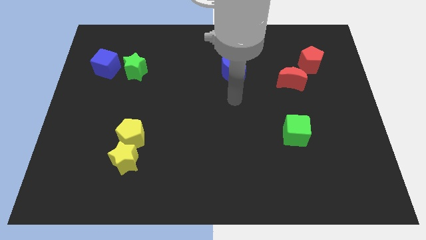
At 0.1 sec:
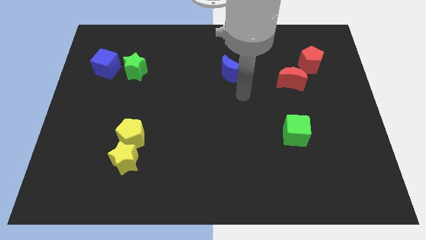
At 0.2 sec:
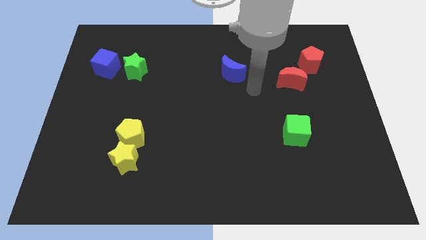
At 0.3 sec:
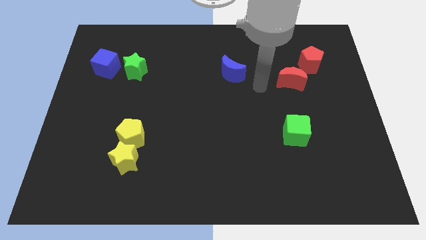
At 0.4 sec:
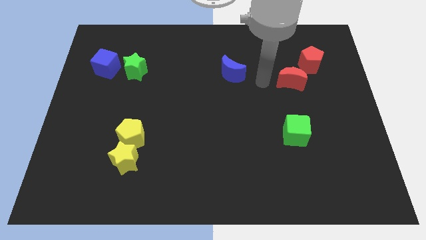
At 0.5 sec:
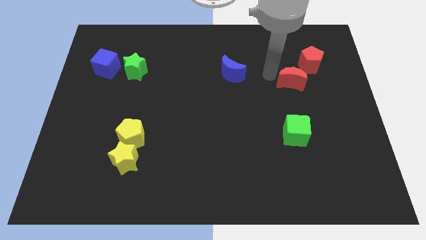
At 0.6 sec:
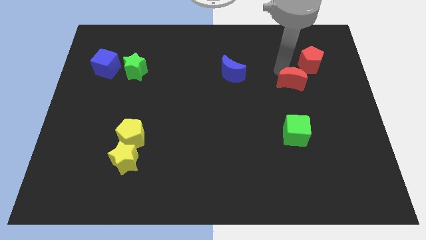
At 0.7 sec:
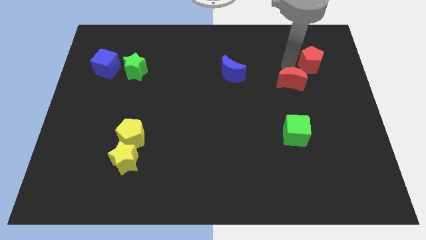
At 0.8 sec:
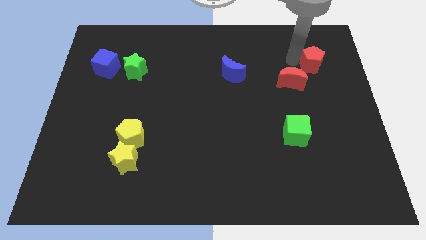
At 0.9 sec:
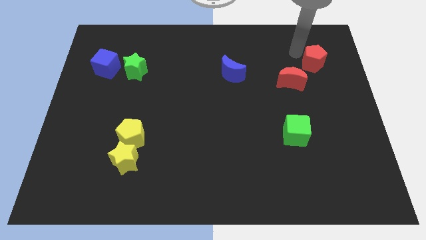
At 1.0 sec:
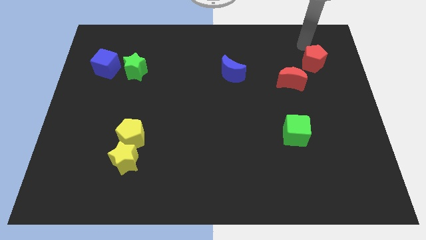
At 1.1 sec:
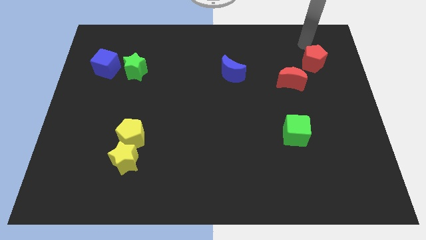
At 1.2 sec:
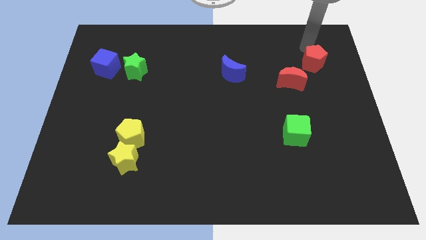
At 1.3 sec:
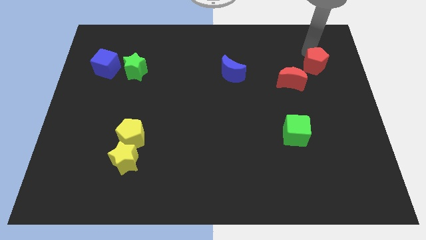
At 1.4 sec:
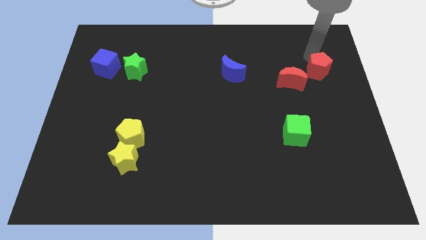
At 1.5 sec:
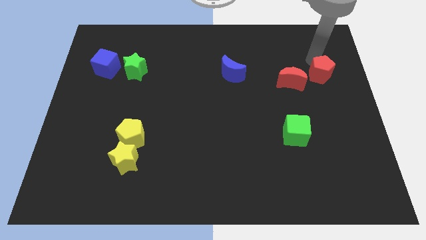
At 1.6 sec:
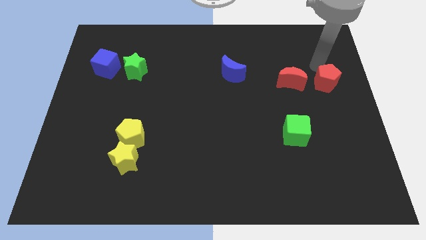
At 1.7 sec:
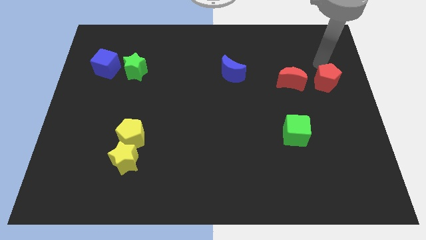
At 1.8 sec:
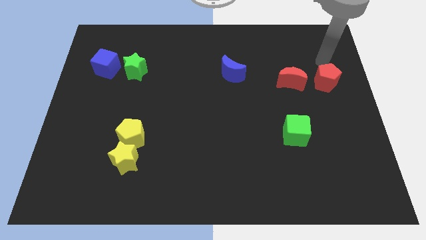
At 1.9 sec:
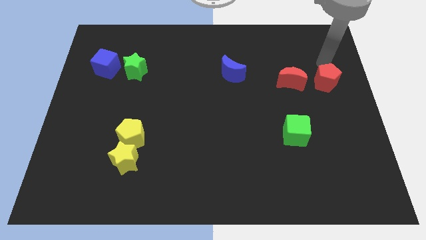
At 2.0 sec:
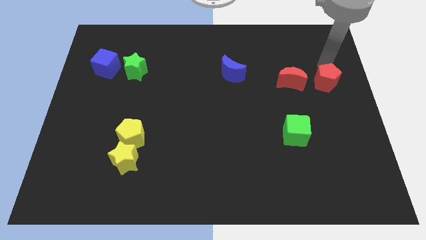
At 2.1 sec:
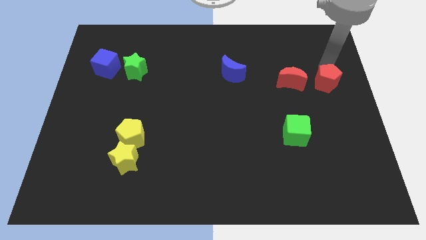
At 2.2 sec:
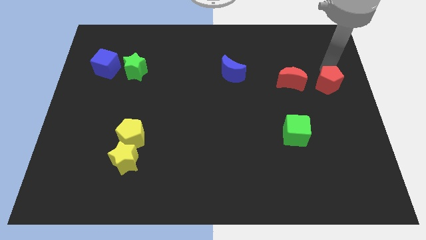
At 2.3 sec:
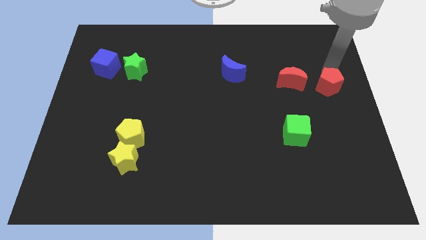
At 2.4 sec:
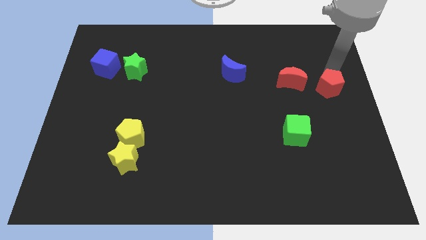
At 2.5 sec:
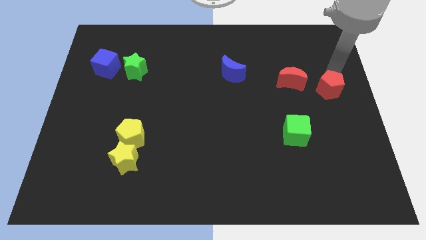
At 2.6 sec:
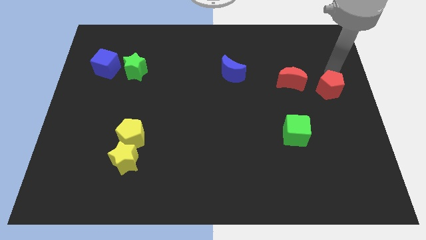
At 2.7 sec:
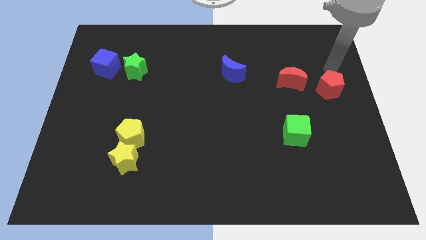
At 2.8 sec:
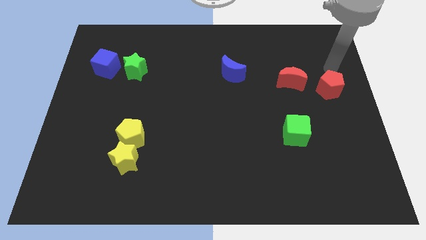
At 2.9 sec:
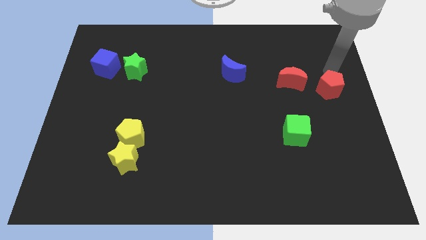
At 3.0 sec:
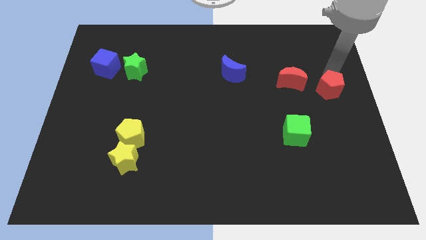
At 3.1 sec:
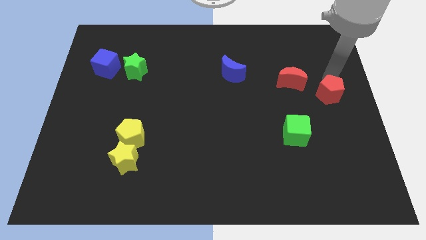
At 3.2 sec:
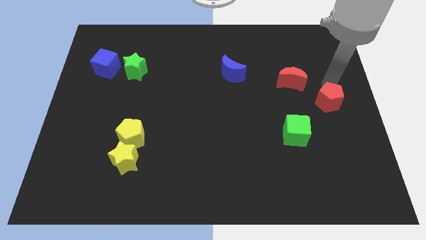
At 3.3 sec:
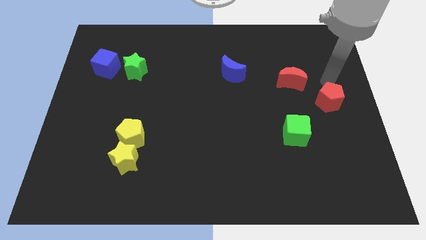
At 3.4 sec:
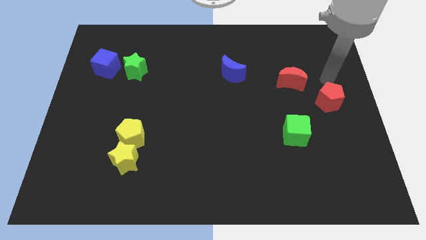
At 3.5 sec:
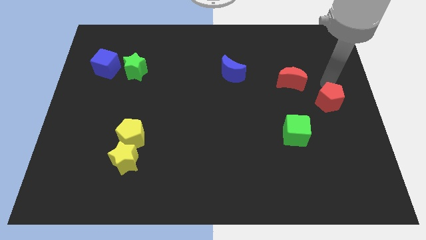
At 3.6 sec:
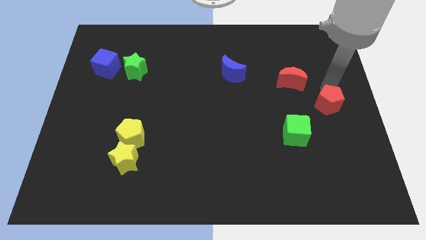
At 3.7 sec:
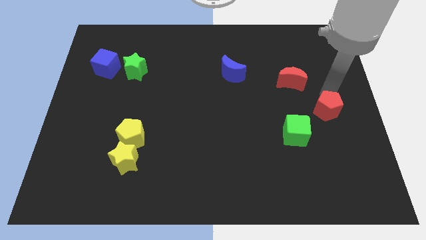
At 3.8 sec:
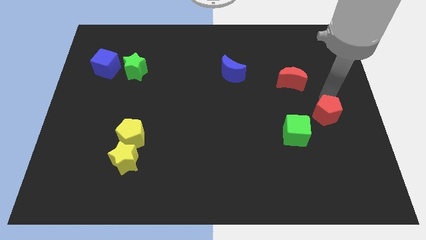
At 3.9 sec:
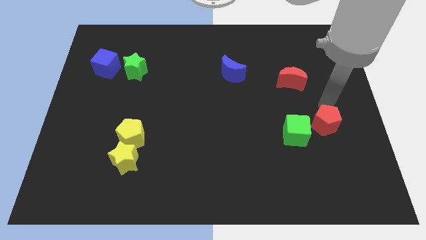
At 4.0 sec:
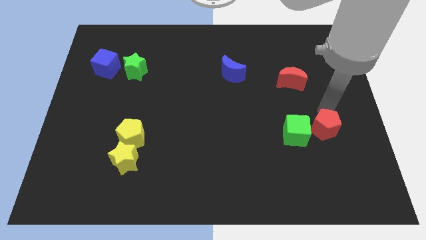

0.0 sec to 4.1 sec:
push the red pentagon downwards

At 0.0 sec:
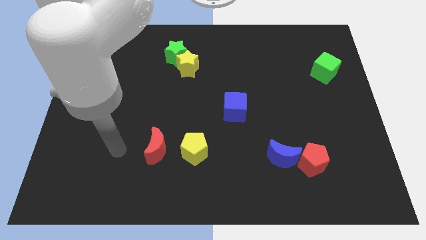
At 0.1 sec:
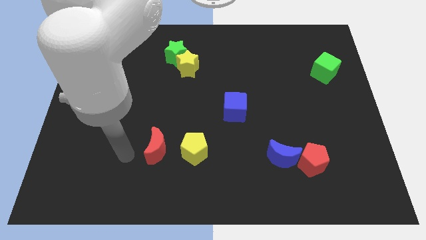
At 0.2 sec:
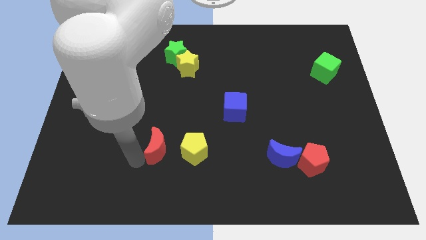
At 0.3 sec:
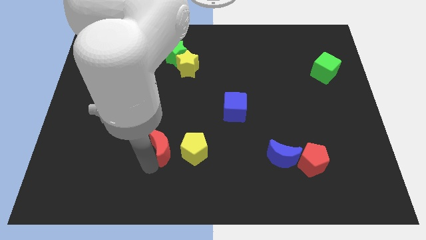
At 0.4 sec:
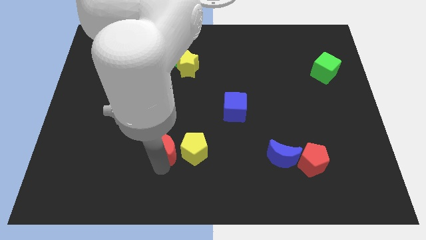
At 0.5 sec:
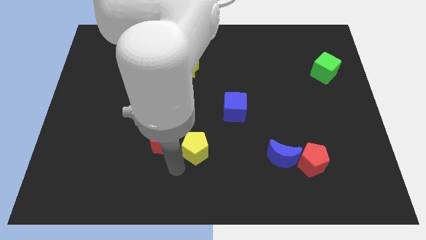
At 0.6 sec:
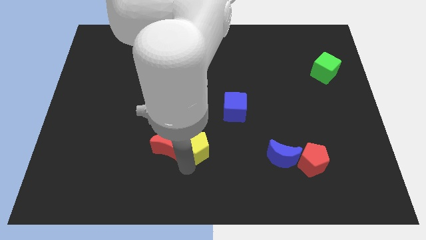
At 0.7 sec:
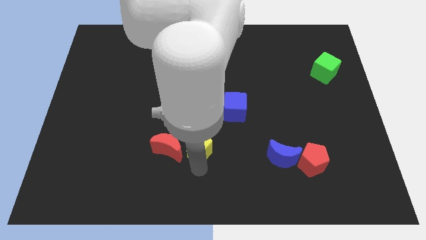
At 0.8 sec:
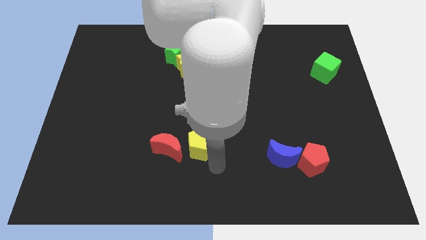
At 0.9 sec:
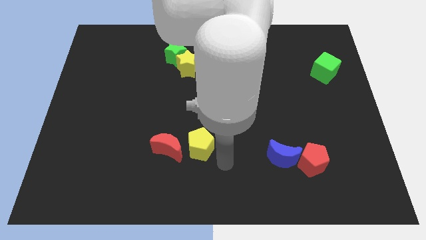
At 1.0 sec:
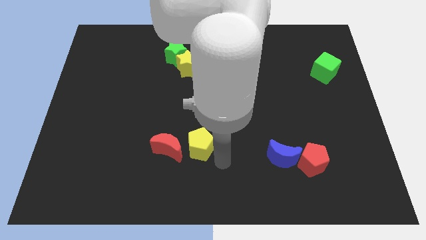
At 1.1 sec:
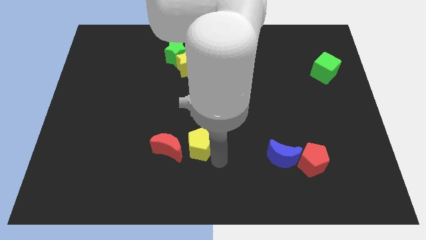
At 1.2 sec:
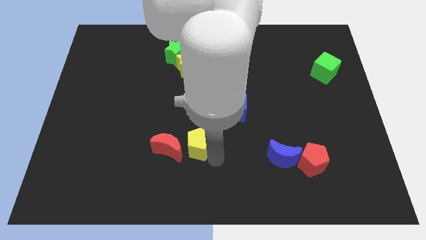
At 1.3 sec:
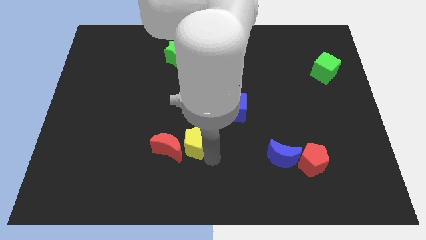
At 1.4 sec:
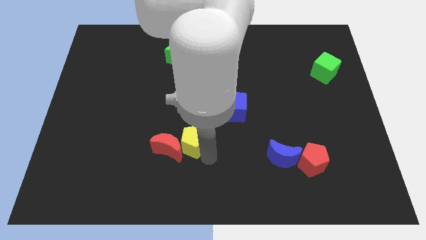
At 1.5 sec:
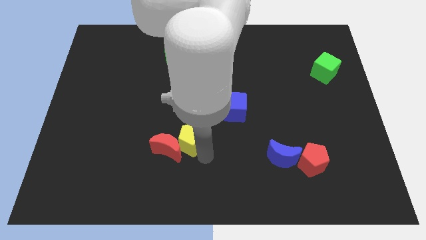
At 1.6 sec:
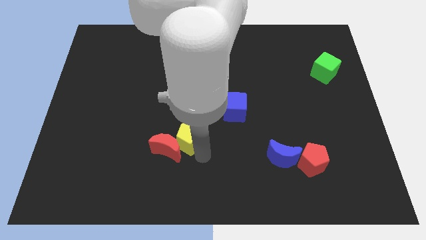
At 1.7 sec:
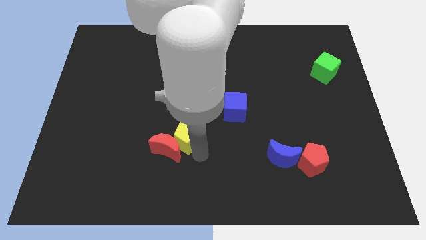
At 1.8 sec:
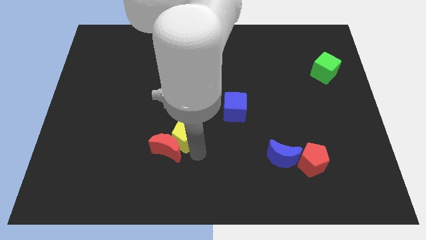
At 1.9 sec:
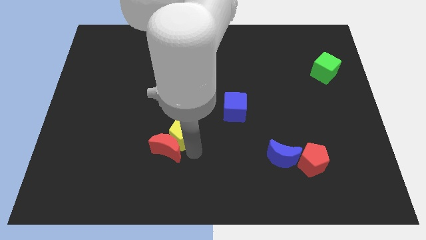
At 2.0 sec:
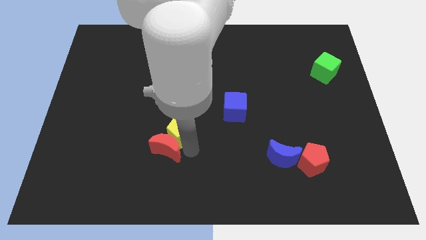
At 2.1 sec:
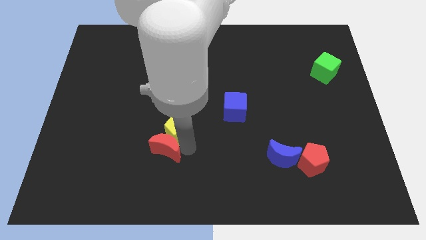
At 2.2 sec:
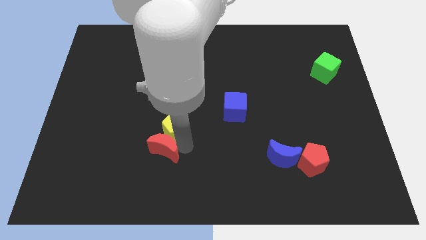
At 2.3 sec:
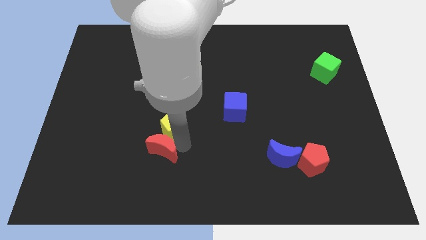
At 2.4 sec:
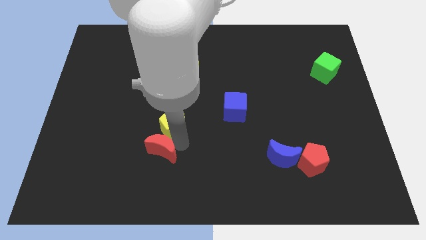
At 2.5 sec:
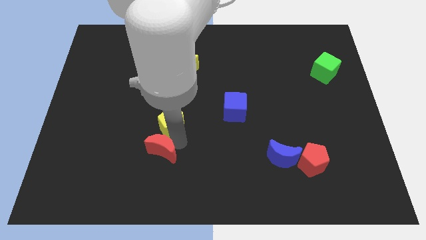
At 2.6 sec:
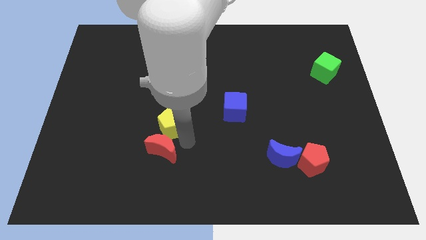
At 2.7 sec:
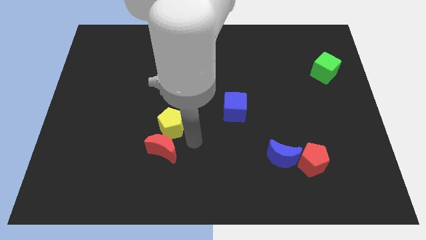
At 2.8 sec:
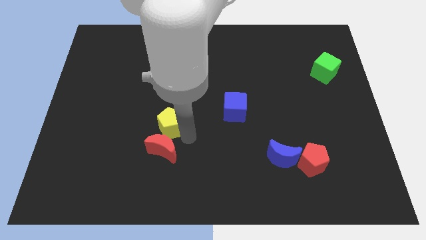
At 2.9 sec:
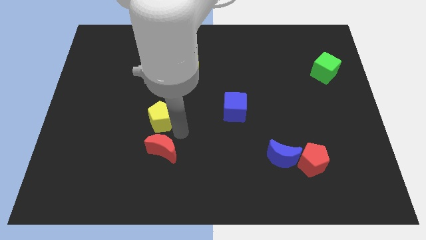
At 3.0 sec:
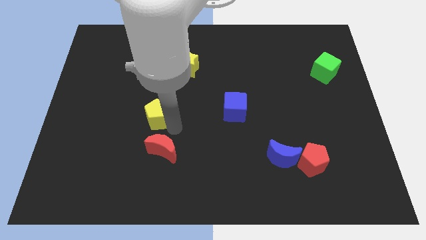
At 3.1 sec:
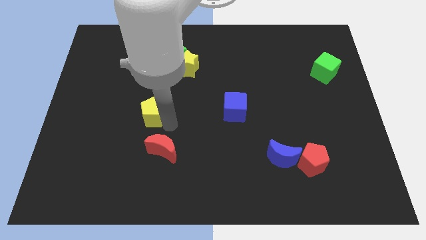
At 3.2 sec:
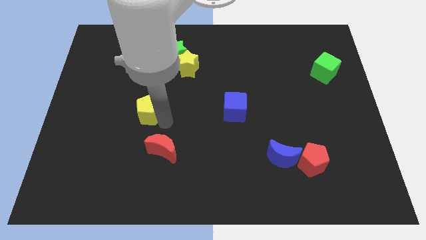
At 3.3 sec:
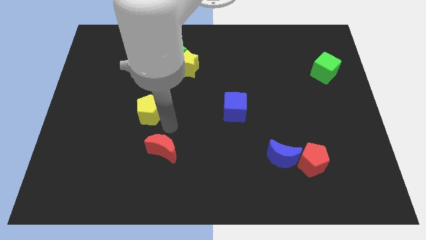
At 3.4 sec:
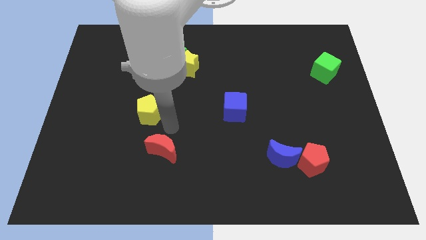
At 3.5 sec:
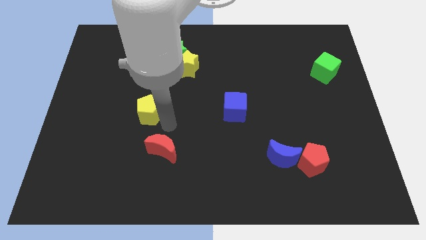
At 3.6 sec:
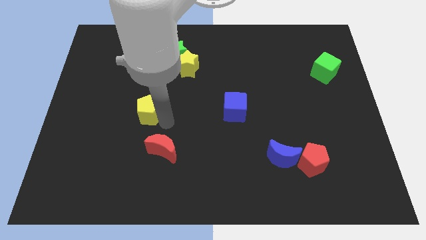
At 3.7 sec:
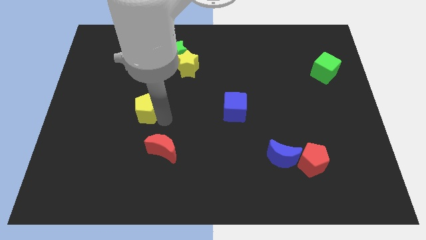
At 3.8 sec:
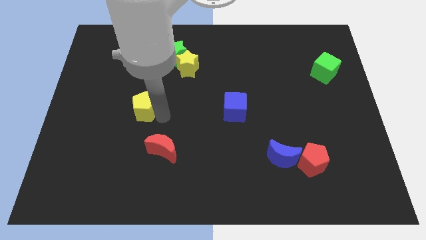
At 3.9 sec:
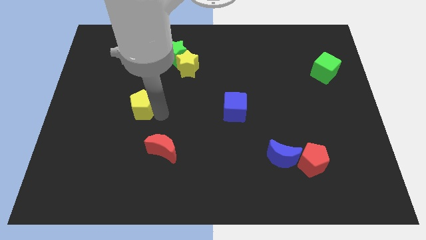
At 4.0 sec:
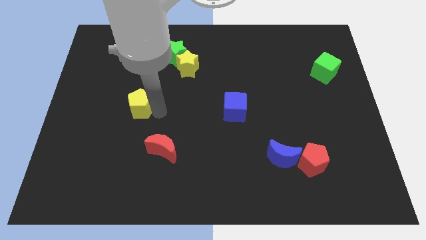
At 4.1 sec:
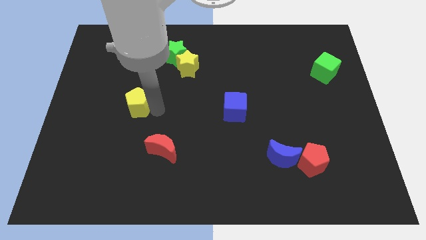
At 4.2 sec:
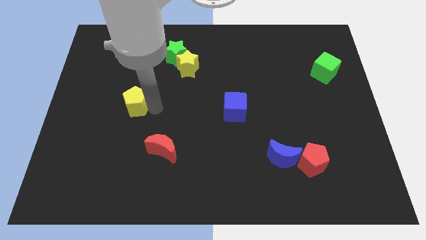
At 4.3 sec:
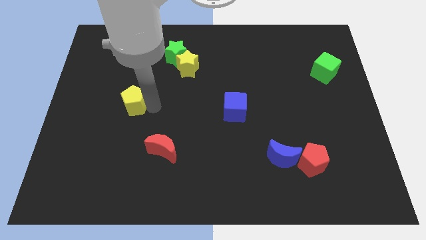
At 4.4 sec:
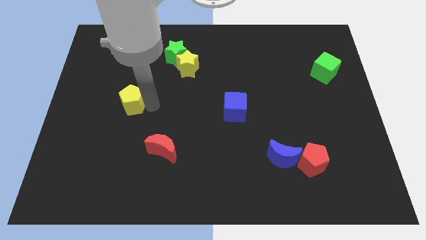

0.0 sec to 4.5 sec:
slide the yellow pentagon up and then to the left
